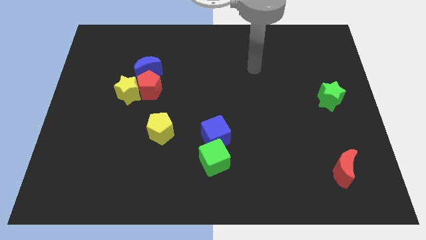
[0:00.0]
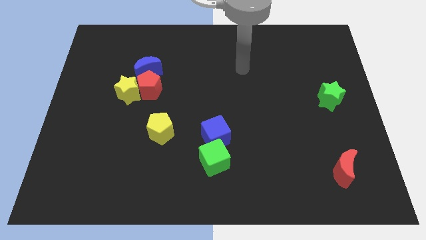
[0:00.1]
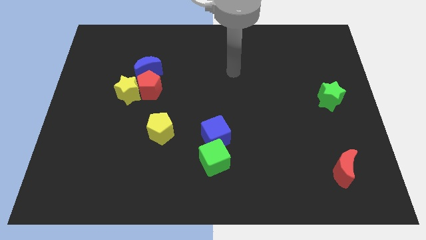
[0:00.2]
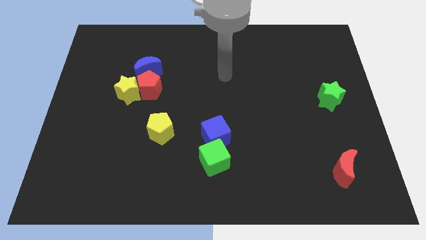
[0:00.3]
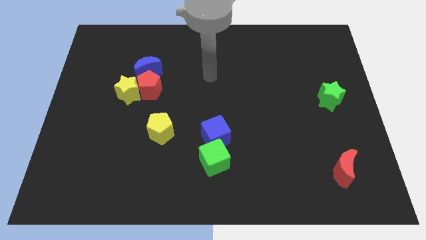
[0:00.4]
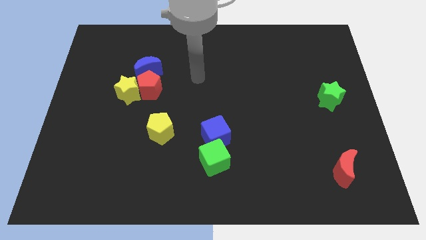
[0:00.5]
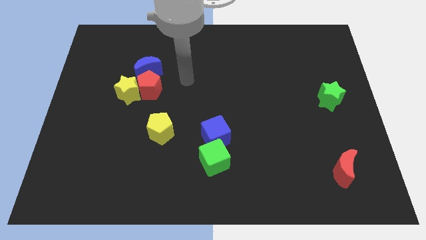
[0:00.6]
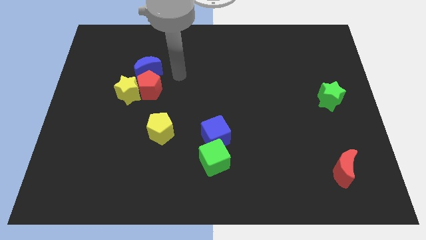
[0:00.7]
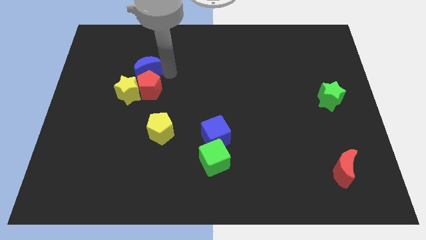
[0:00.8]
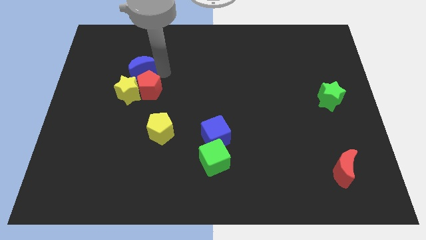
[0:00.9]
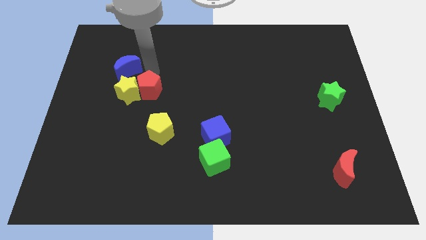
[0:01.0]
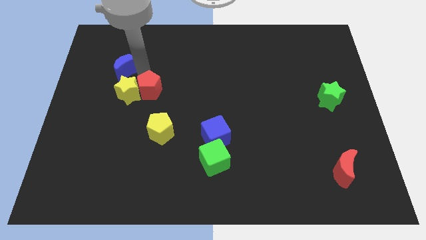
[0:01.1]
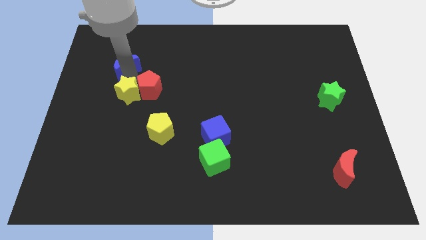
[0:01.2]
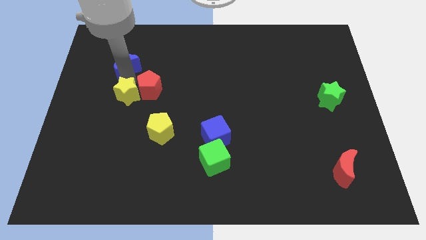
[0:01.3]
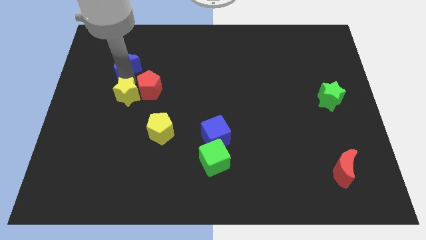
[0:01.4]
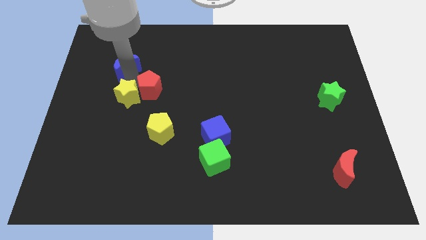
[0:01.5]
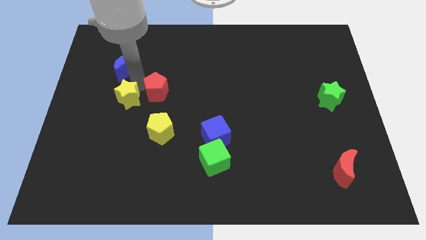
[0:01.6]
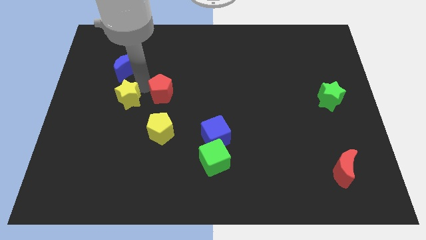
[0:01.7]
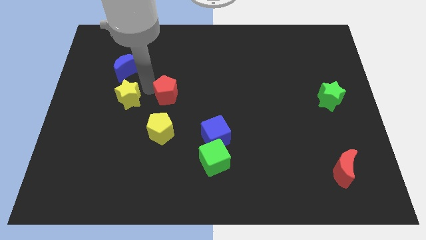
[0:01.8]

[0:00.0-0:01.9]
move the red pentagon away from the yellow star and blue moon

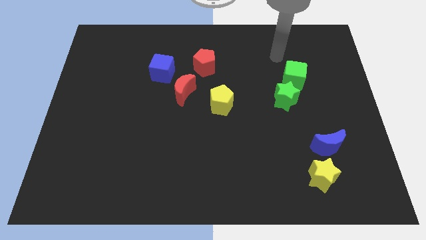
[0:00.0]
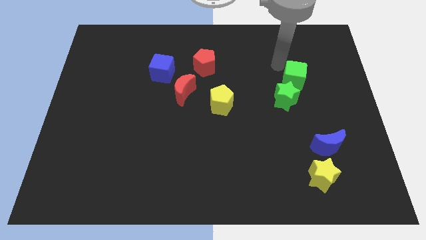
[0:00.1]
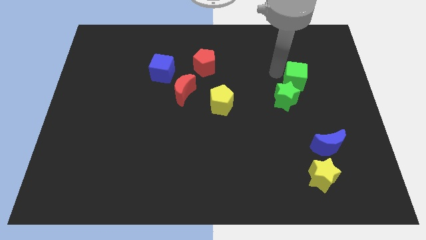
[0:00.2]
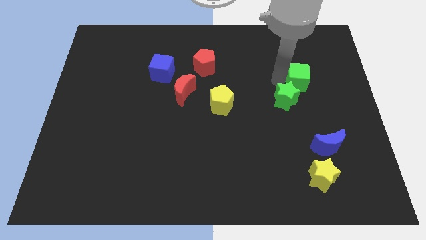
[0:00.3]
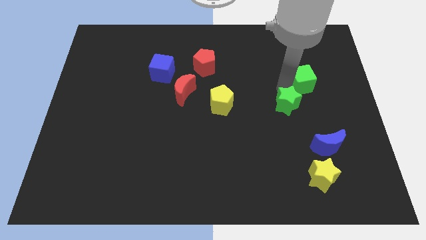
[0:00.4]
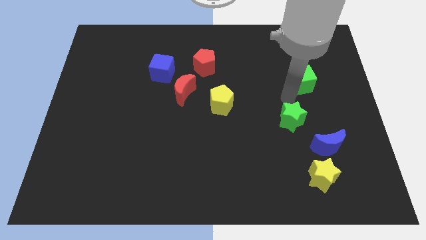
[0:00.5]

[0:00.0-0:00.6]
pull the green cube apart from the green star

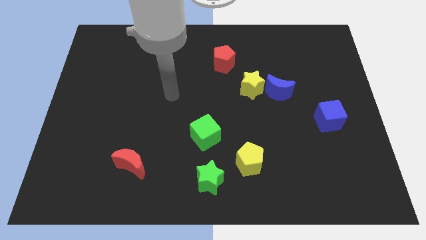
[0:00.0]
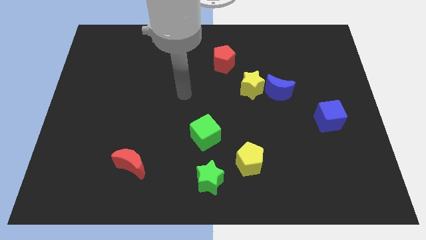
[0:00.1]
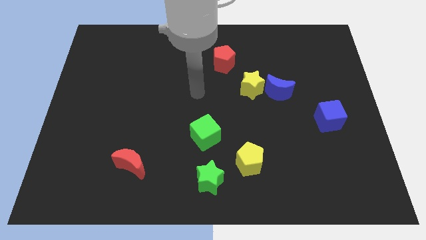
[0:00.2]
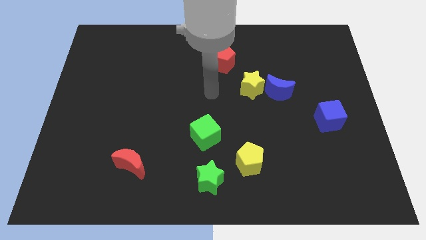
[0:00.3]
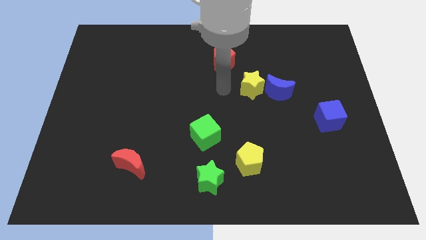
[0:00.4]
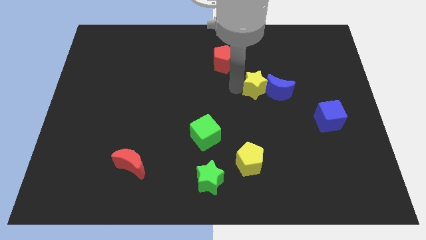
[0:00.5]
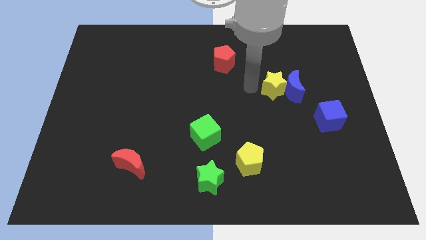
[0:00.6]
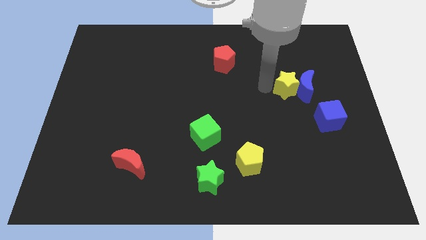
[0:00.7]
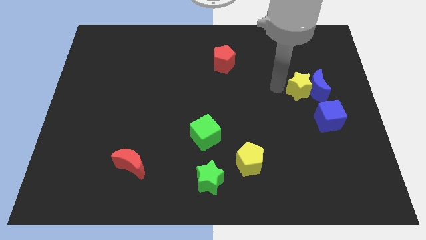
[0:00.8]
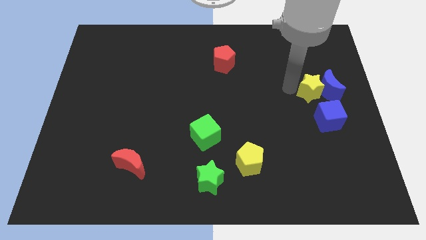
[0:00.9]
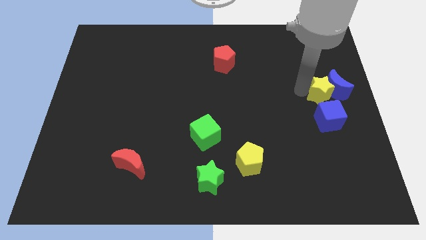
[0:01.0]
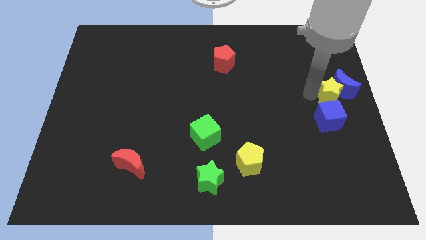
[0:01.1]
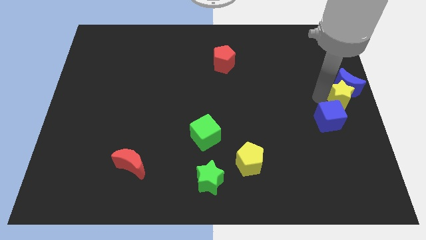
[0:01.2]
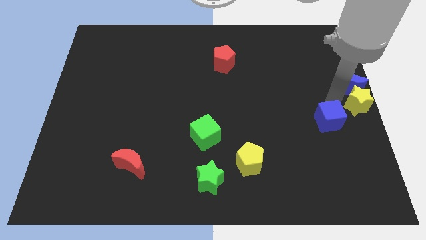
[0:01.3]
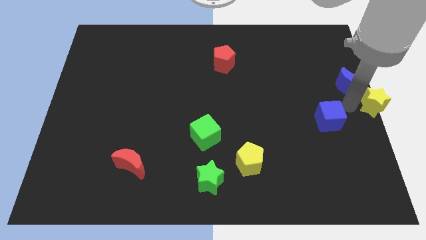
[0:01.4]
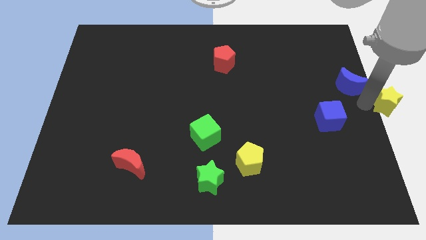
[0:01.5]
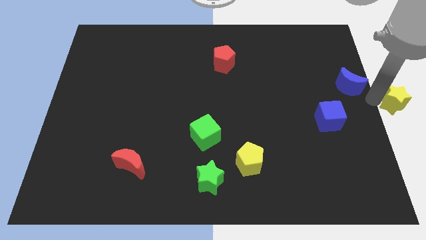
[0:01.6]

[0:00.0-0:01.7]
separate the blue moon from the yellow star

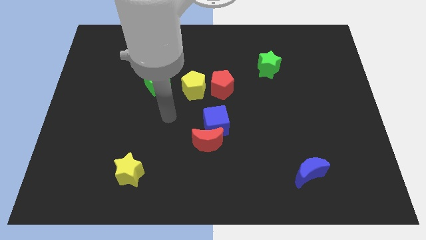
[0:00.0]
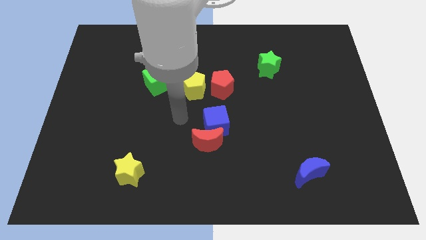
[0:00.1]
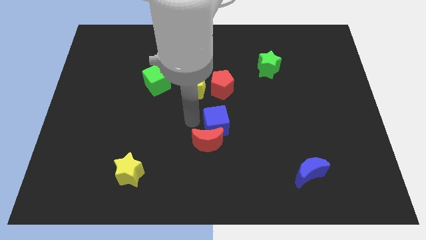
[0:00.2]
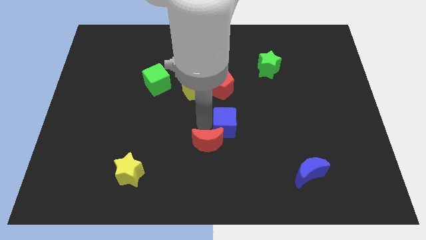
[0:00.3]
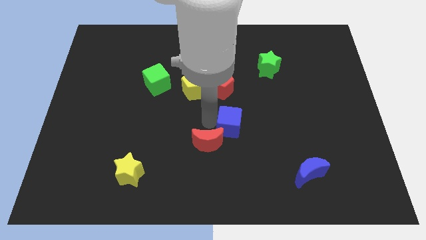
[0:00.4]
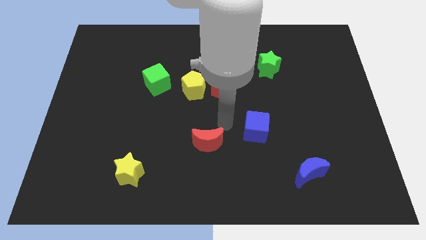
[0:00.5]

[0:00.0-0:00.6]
separate the red moon from the blue cube

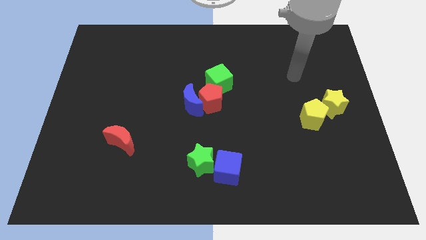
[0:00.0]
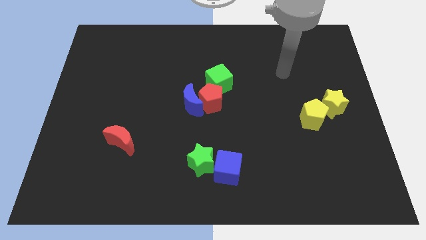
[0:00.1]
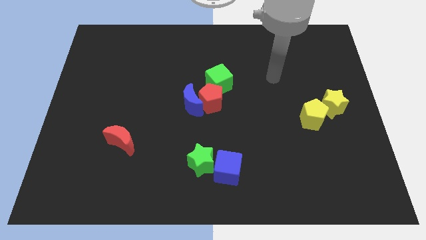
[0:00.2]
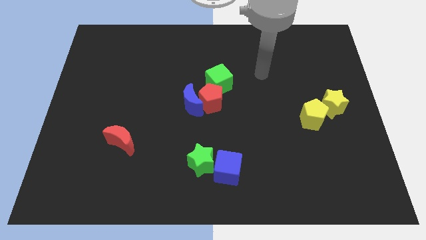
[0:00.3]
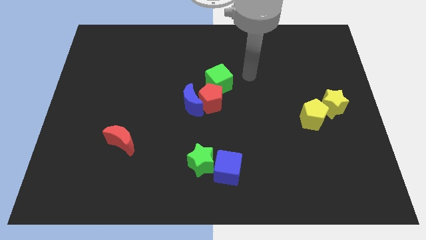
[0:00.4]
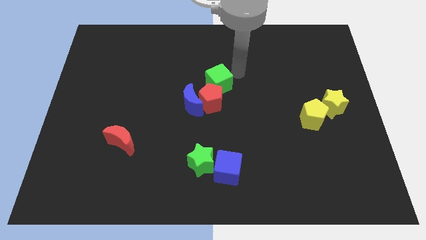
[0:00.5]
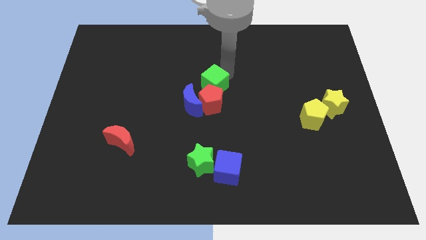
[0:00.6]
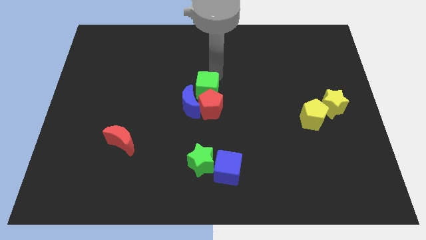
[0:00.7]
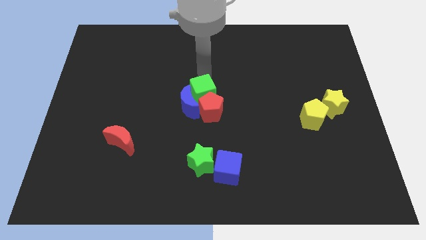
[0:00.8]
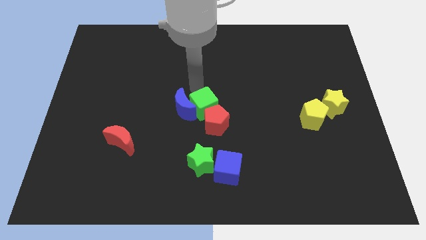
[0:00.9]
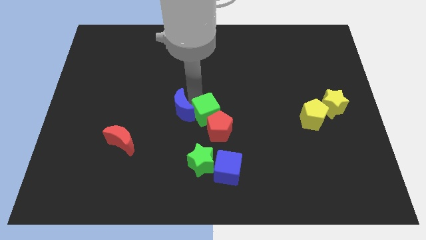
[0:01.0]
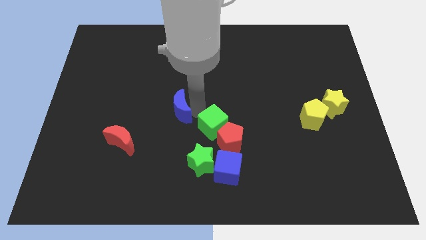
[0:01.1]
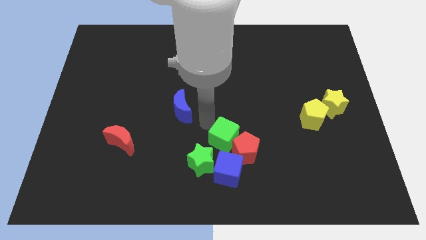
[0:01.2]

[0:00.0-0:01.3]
pull the red pentagon apart from the blue moon and green cube

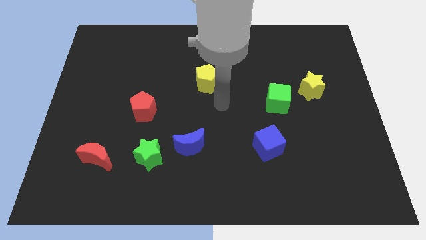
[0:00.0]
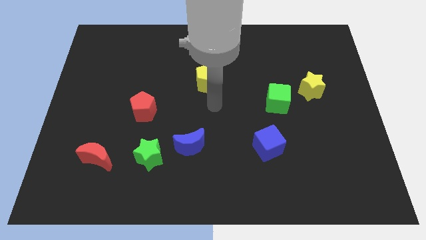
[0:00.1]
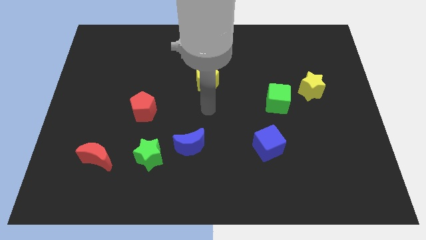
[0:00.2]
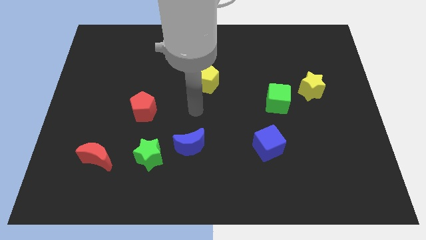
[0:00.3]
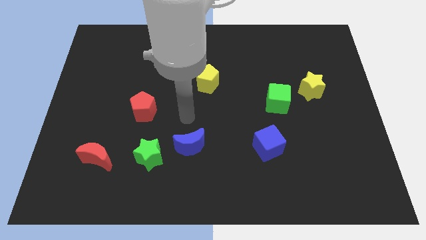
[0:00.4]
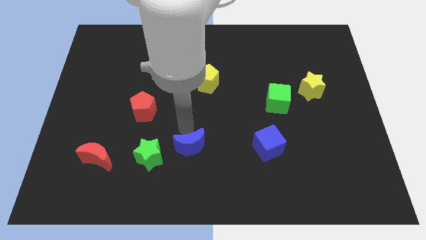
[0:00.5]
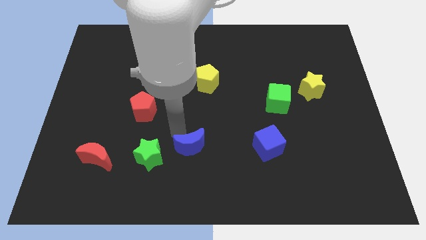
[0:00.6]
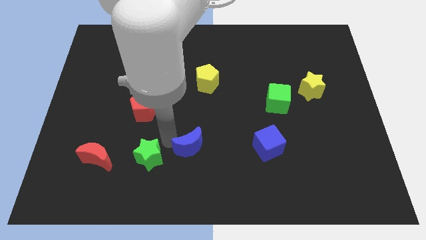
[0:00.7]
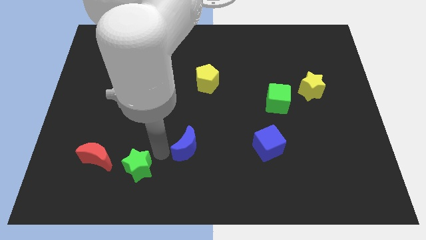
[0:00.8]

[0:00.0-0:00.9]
pull the blue moon apart from the green star

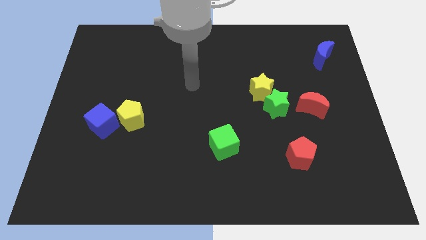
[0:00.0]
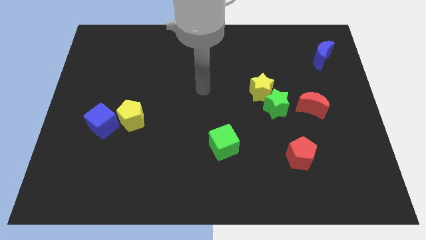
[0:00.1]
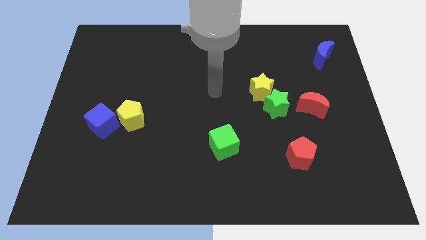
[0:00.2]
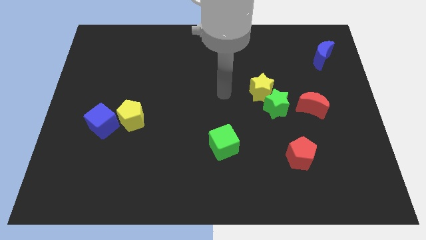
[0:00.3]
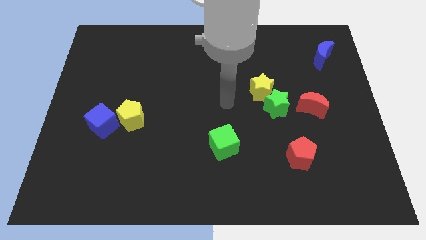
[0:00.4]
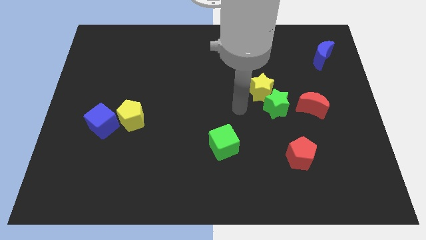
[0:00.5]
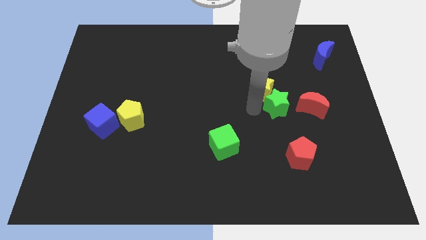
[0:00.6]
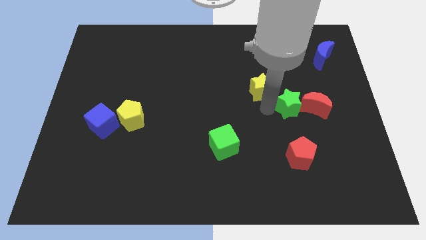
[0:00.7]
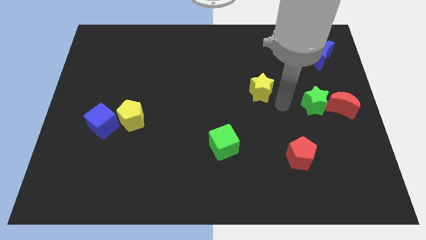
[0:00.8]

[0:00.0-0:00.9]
move the yellow star away from the green star

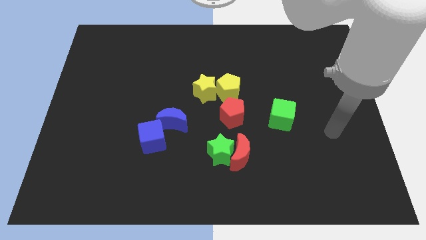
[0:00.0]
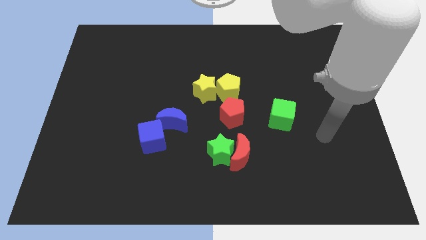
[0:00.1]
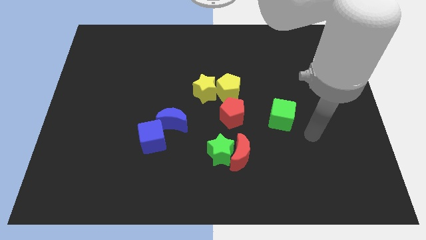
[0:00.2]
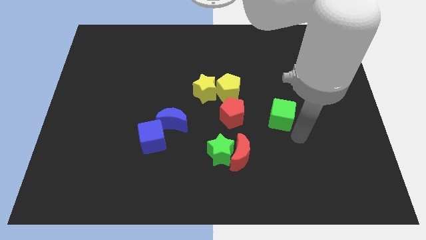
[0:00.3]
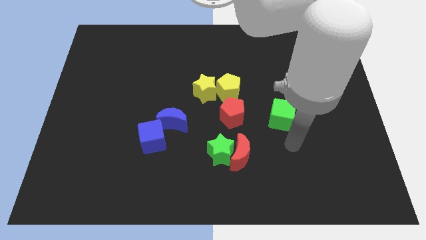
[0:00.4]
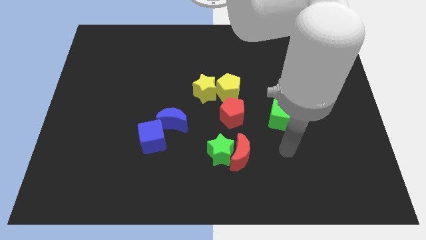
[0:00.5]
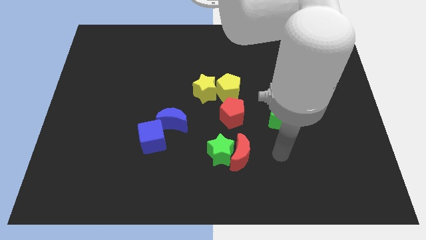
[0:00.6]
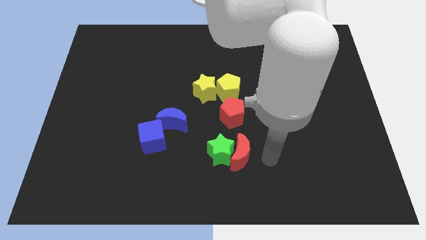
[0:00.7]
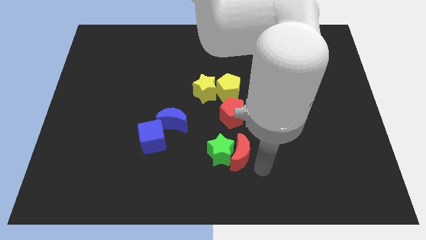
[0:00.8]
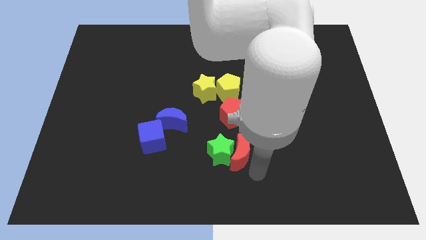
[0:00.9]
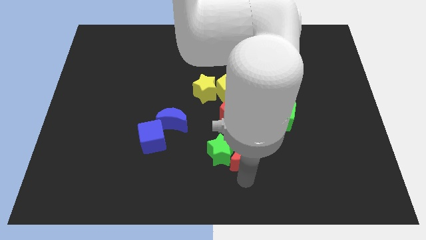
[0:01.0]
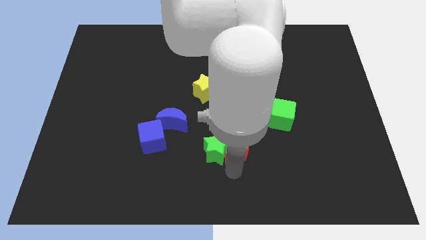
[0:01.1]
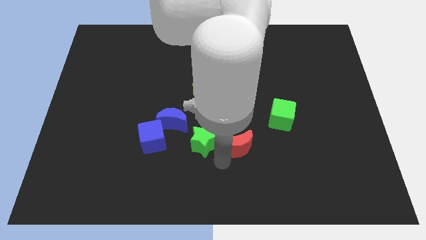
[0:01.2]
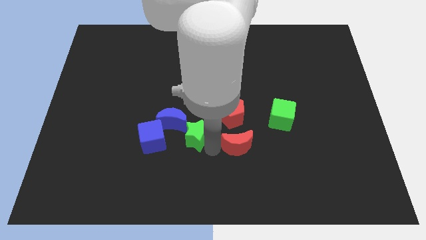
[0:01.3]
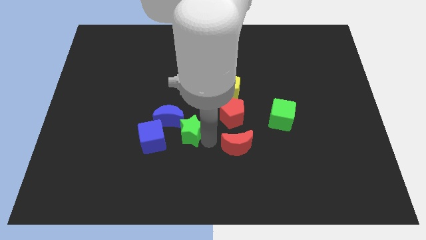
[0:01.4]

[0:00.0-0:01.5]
separate the red moon from the green star

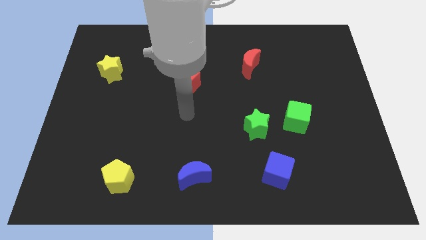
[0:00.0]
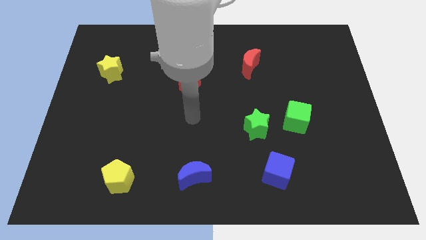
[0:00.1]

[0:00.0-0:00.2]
move the green cube away from the green star
